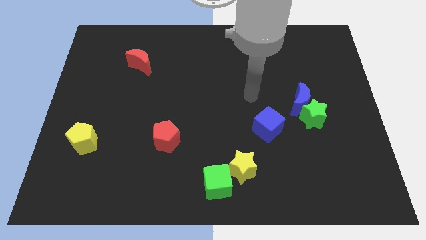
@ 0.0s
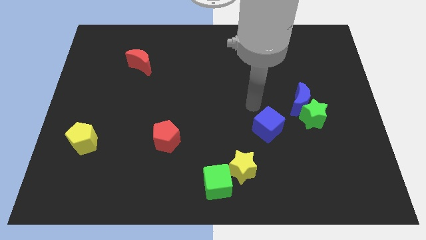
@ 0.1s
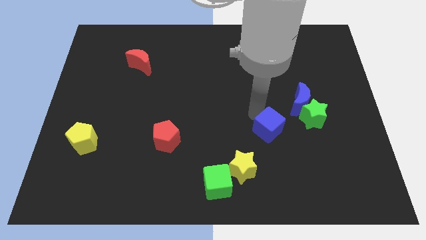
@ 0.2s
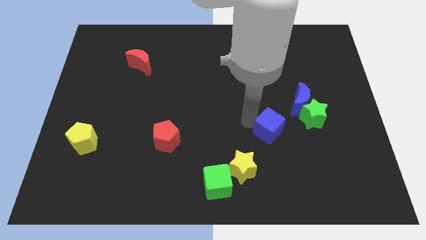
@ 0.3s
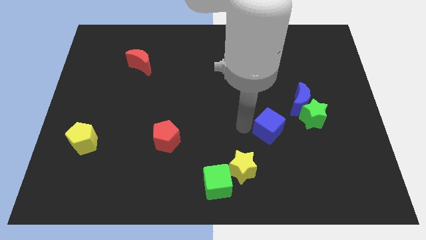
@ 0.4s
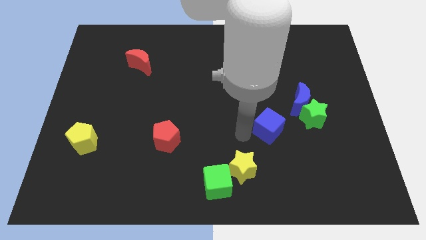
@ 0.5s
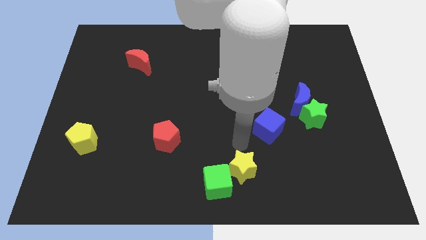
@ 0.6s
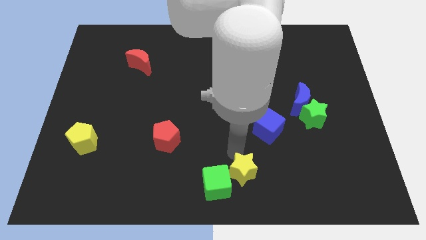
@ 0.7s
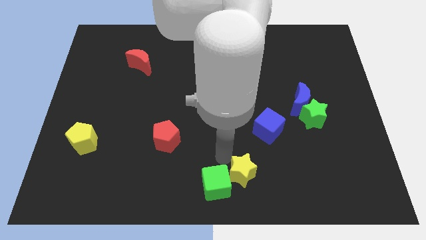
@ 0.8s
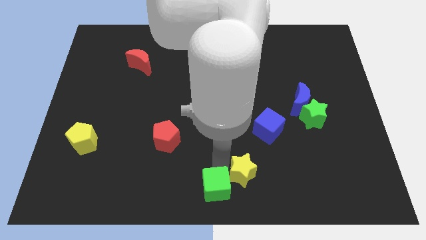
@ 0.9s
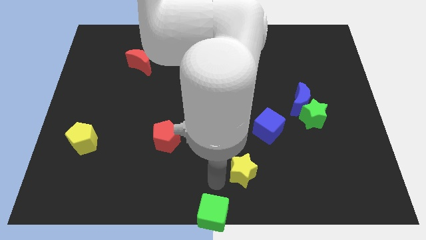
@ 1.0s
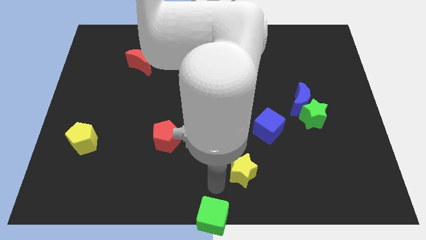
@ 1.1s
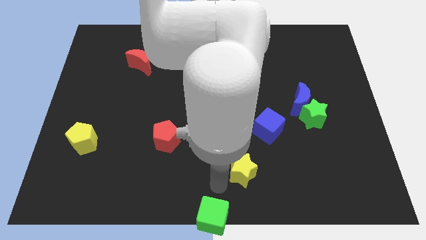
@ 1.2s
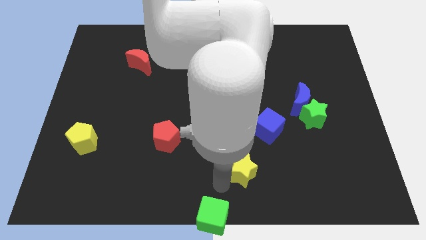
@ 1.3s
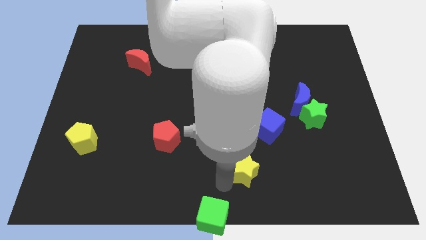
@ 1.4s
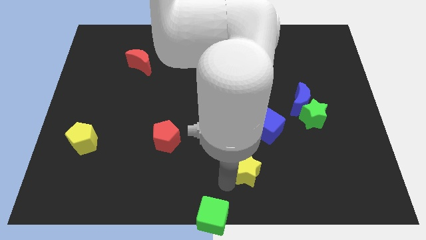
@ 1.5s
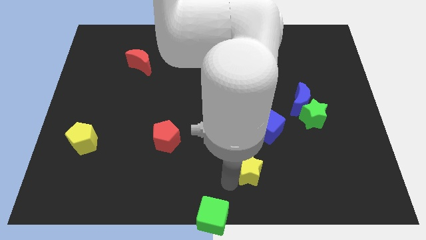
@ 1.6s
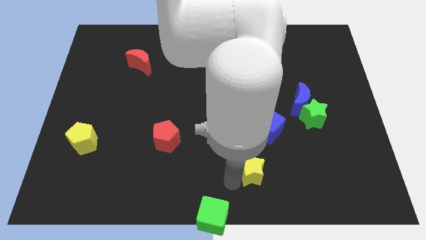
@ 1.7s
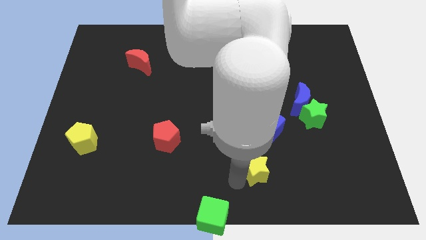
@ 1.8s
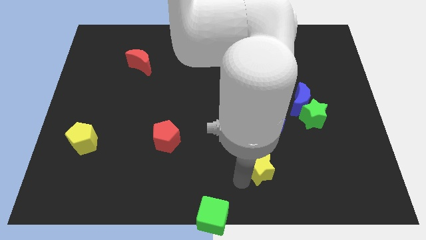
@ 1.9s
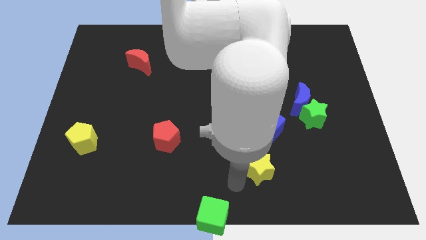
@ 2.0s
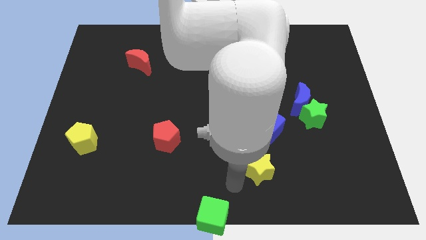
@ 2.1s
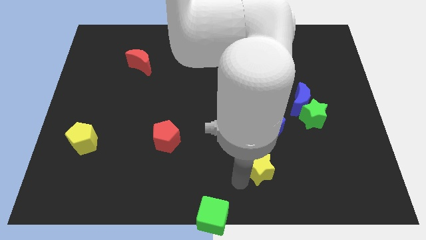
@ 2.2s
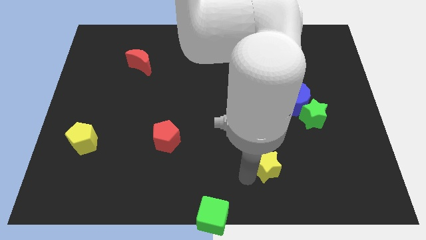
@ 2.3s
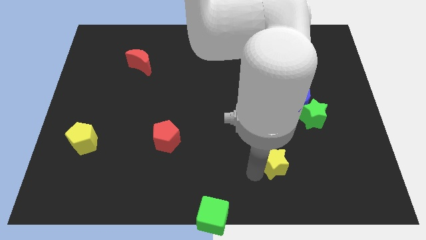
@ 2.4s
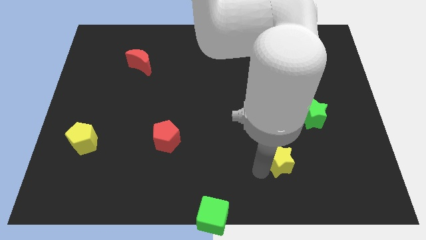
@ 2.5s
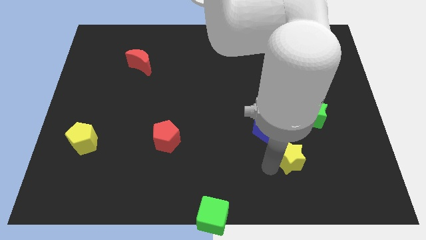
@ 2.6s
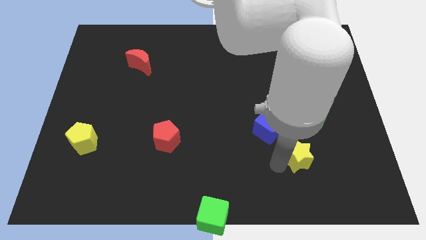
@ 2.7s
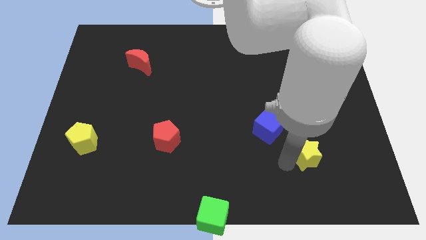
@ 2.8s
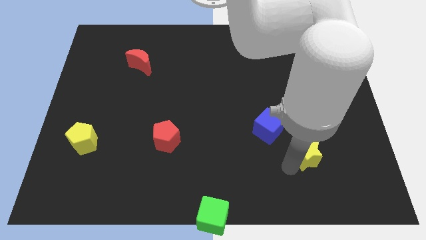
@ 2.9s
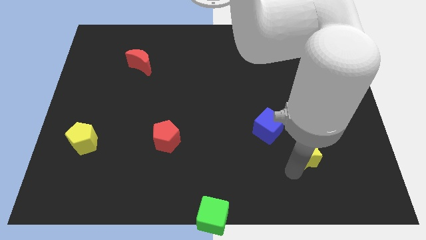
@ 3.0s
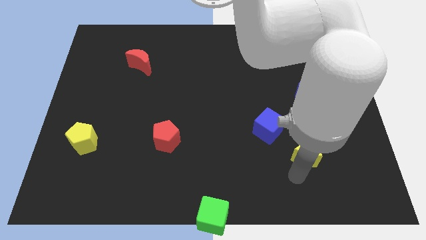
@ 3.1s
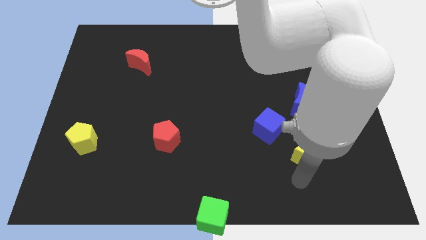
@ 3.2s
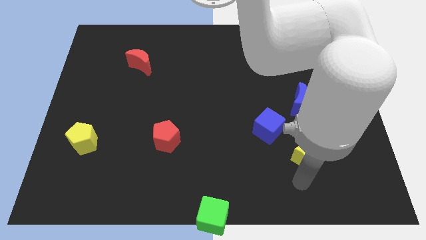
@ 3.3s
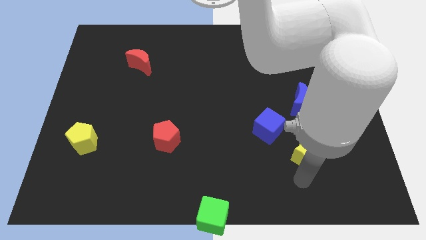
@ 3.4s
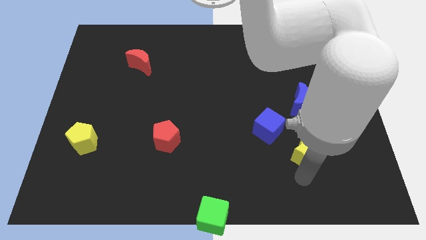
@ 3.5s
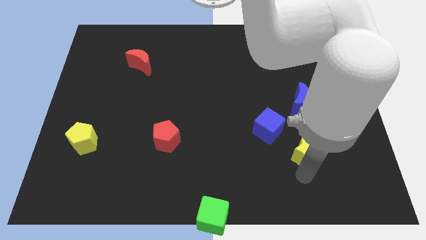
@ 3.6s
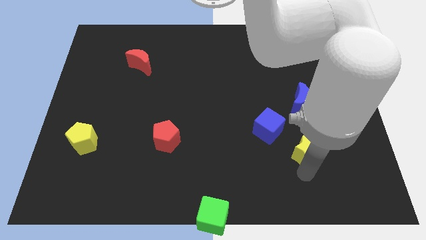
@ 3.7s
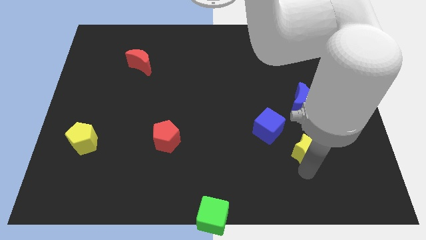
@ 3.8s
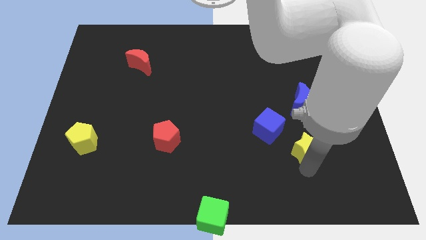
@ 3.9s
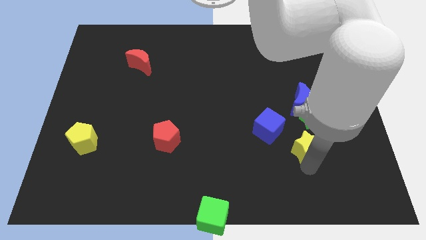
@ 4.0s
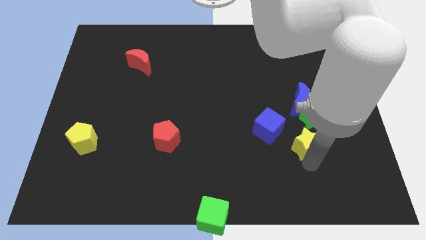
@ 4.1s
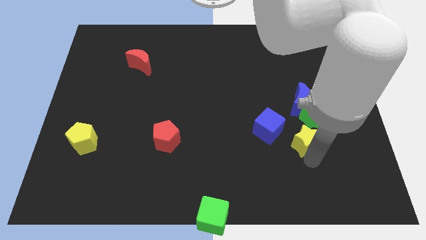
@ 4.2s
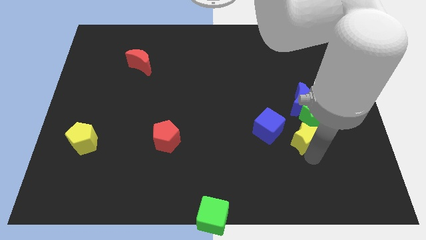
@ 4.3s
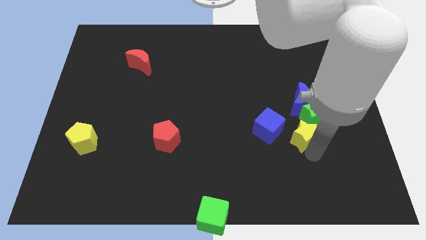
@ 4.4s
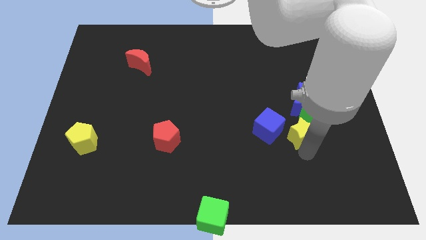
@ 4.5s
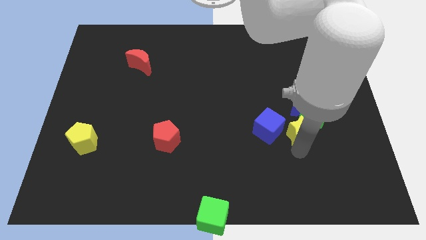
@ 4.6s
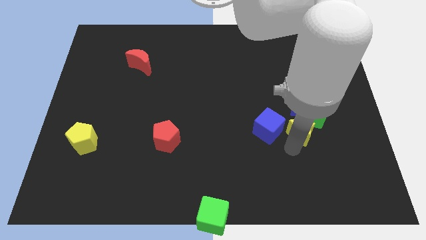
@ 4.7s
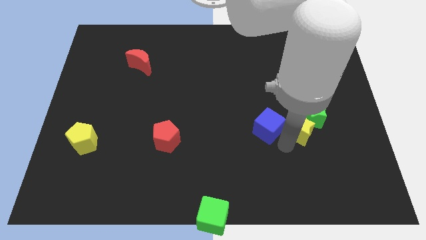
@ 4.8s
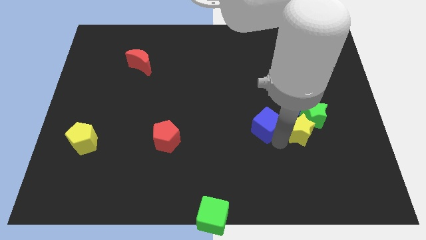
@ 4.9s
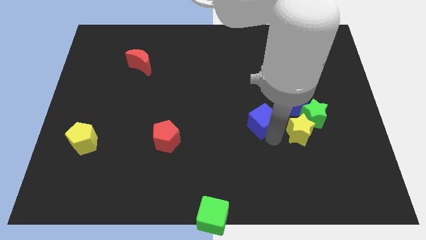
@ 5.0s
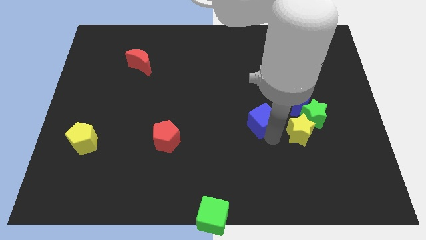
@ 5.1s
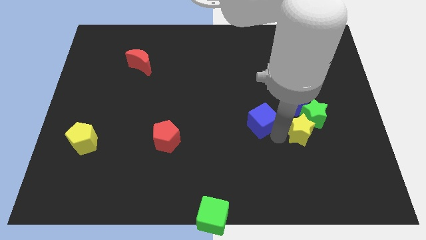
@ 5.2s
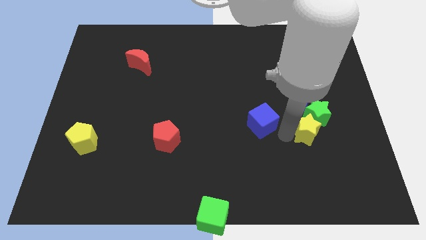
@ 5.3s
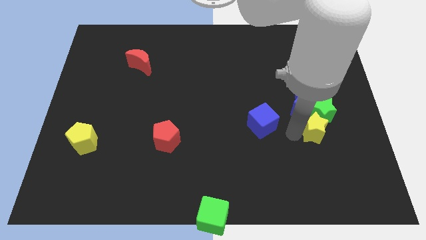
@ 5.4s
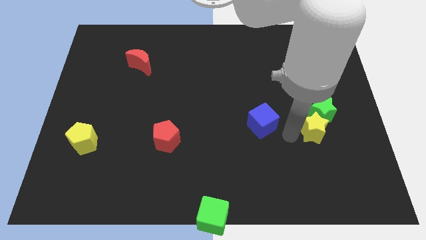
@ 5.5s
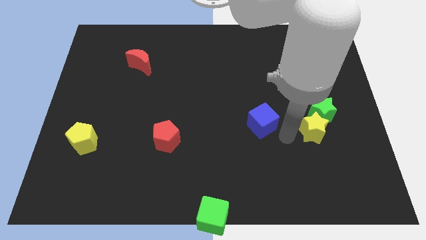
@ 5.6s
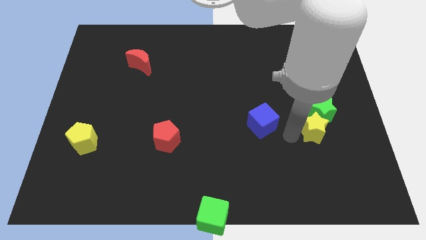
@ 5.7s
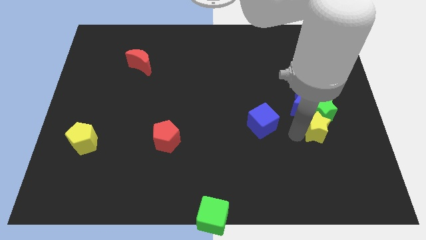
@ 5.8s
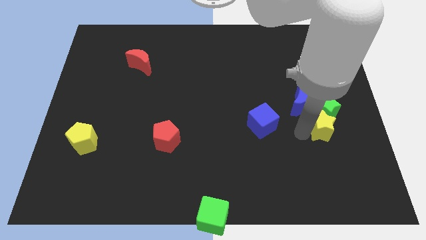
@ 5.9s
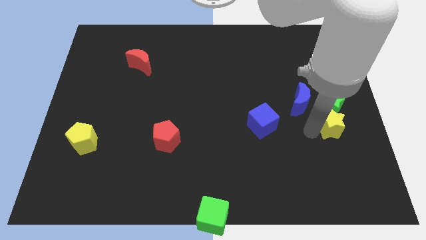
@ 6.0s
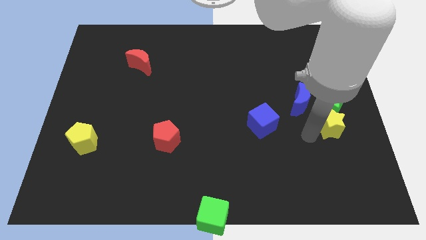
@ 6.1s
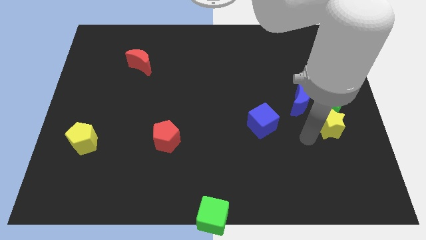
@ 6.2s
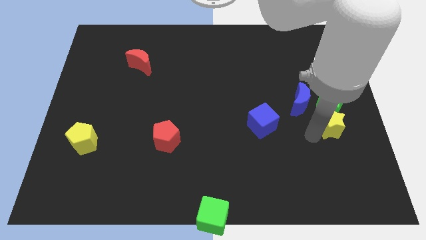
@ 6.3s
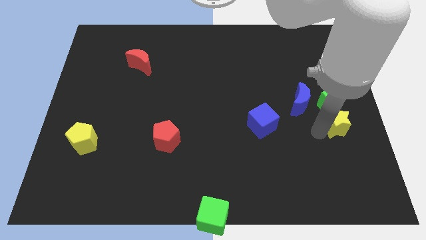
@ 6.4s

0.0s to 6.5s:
push the yellow star to the right side of the board
